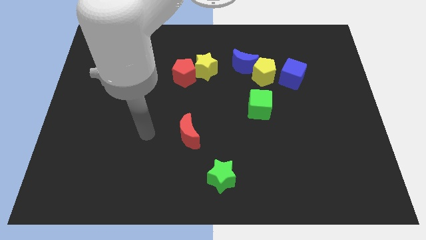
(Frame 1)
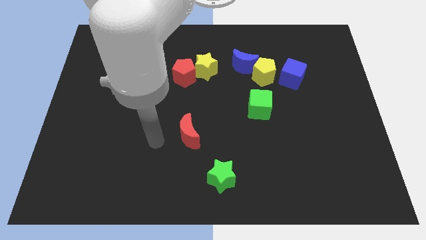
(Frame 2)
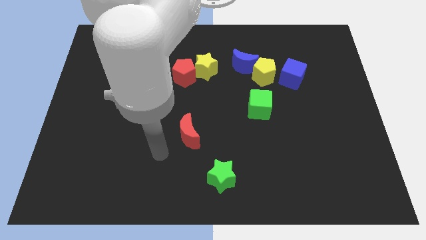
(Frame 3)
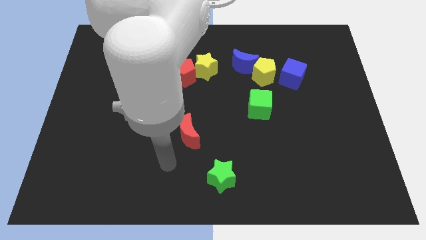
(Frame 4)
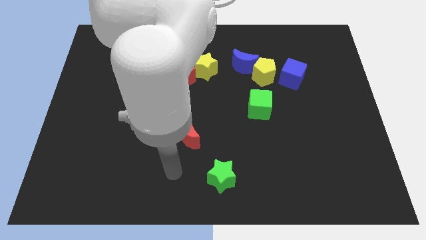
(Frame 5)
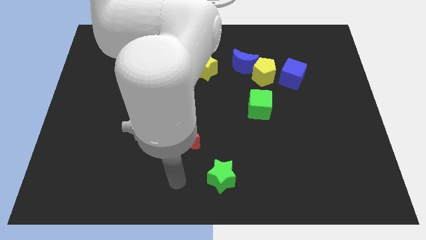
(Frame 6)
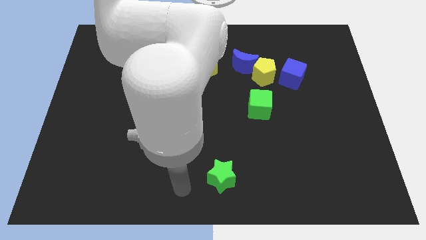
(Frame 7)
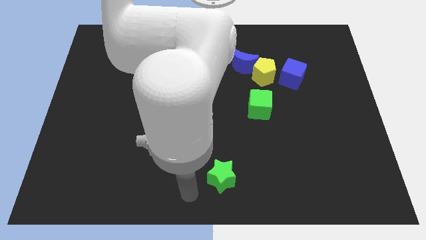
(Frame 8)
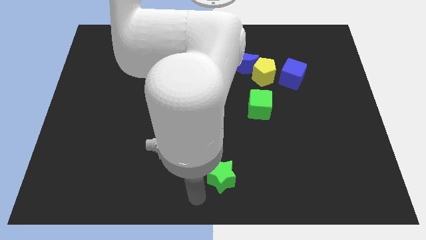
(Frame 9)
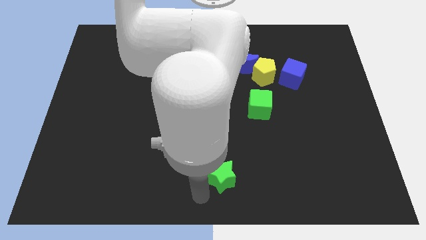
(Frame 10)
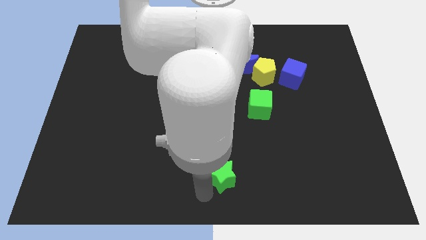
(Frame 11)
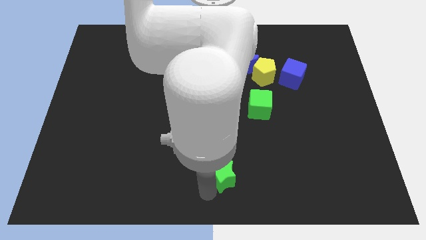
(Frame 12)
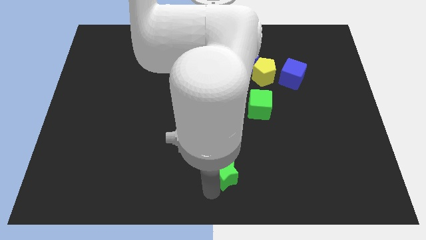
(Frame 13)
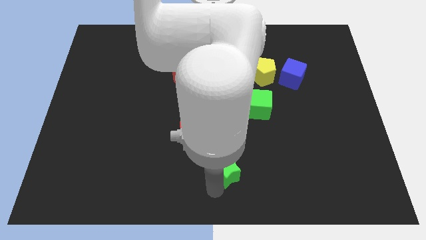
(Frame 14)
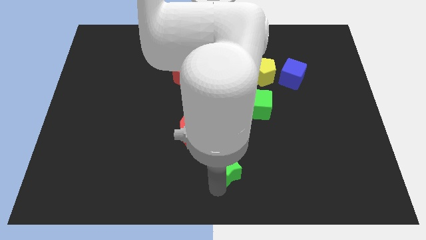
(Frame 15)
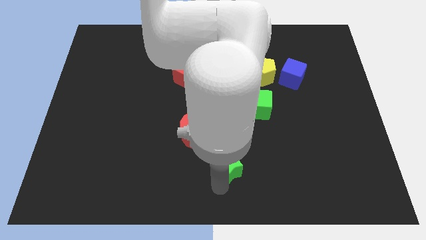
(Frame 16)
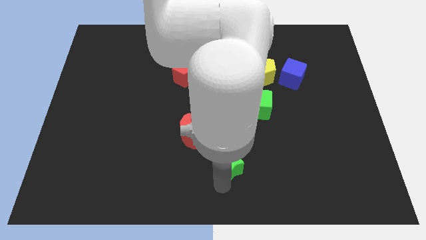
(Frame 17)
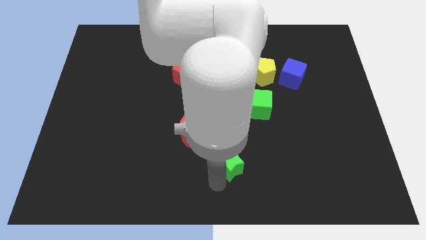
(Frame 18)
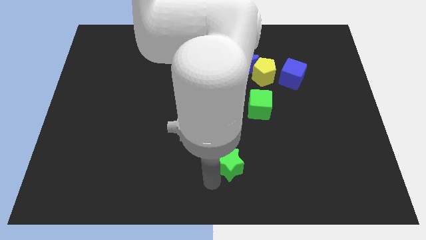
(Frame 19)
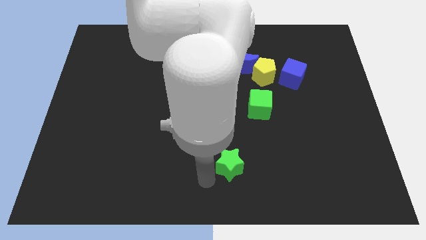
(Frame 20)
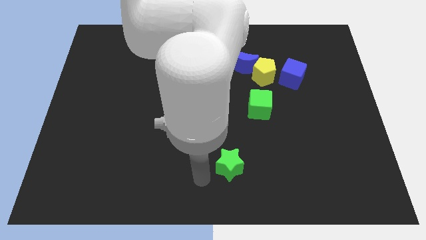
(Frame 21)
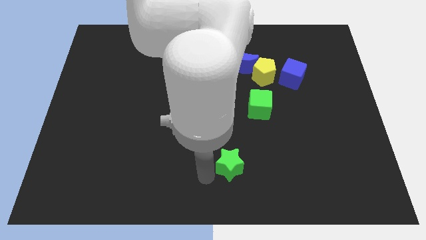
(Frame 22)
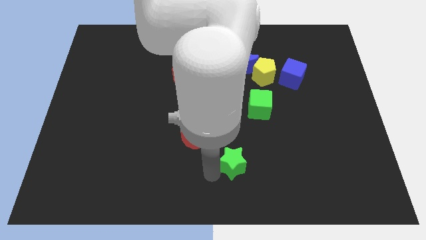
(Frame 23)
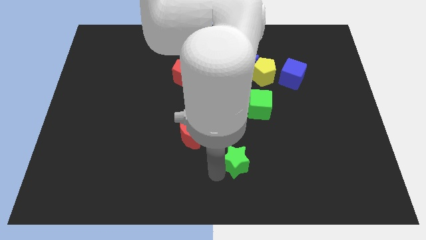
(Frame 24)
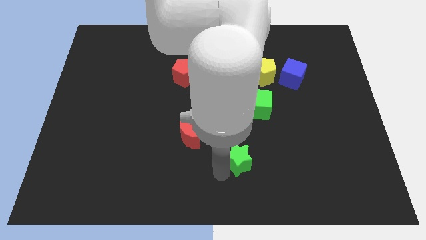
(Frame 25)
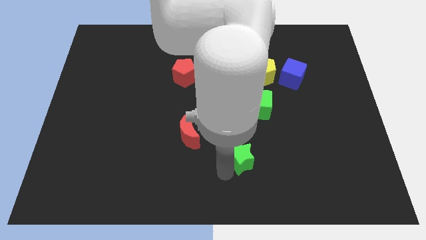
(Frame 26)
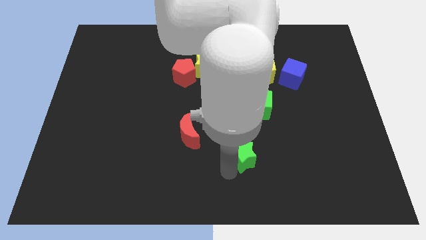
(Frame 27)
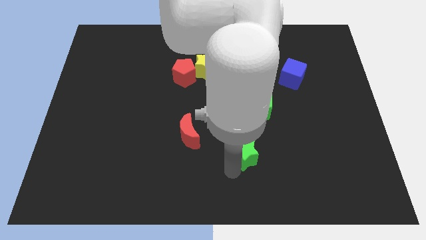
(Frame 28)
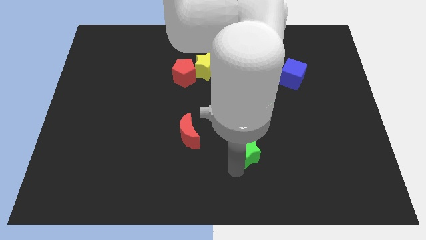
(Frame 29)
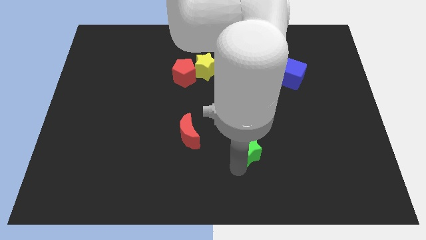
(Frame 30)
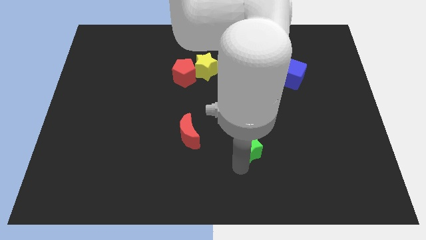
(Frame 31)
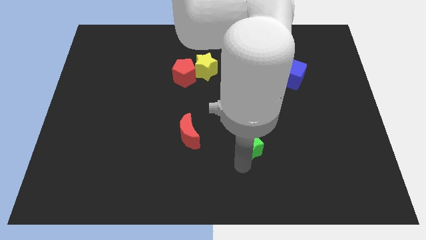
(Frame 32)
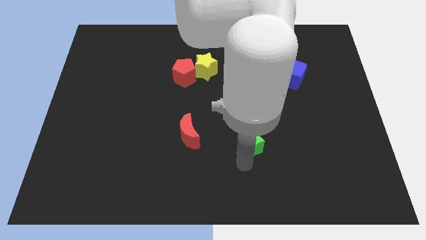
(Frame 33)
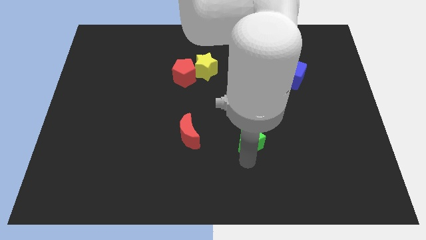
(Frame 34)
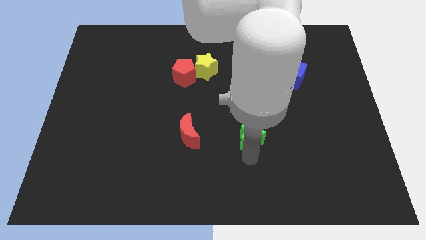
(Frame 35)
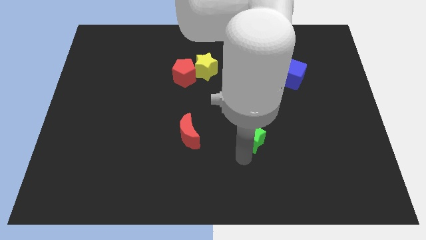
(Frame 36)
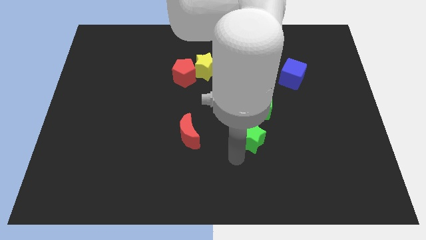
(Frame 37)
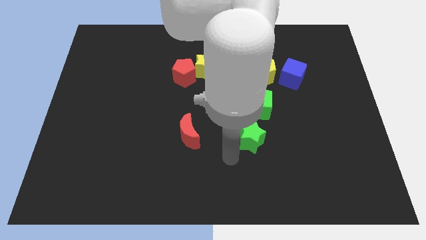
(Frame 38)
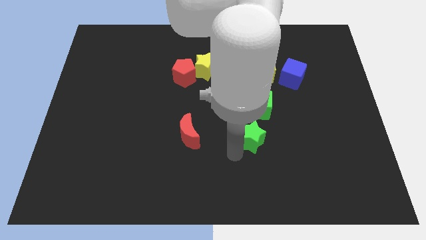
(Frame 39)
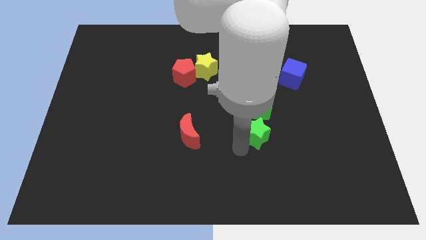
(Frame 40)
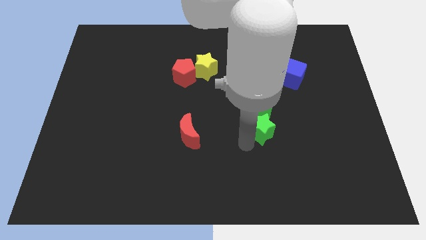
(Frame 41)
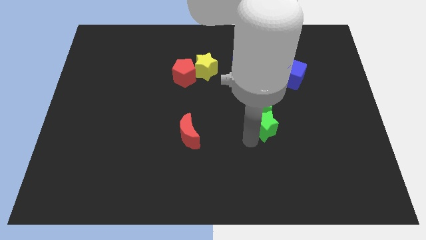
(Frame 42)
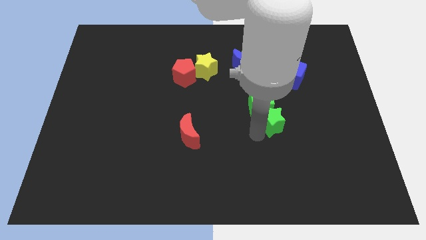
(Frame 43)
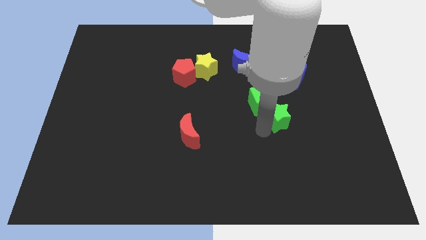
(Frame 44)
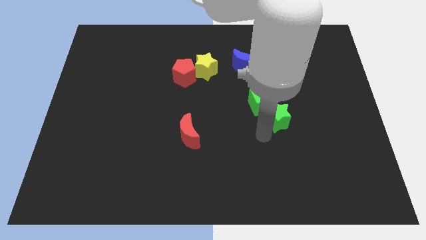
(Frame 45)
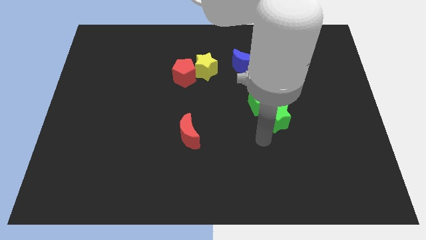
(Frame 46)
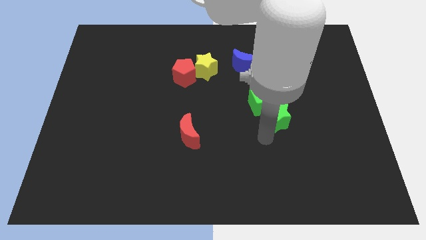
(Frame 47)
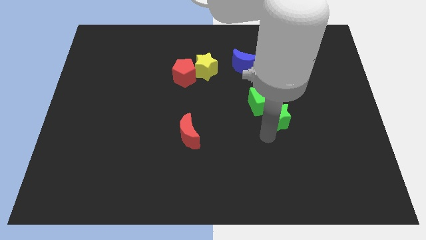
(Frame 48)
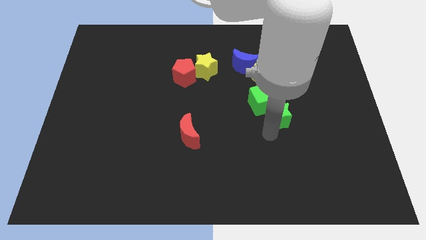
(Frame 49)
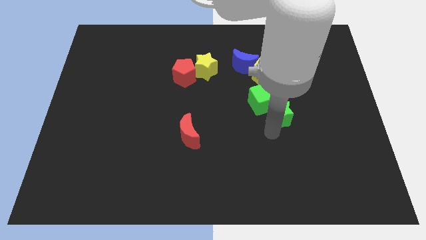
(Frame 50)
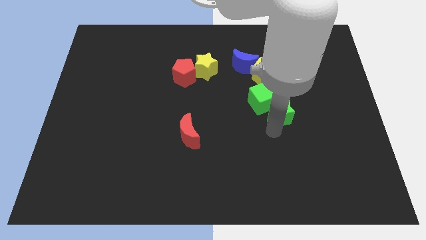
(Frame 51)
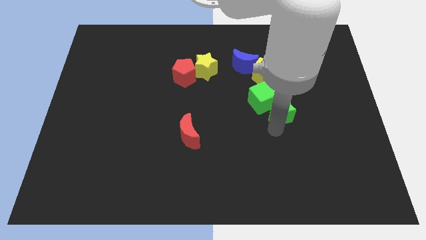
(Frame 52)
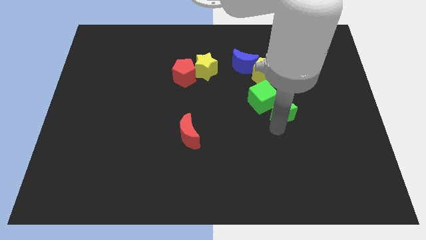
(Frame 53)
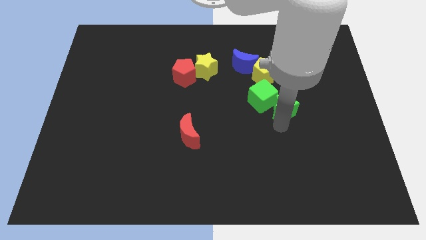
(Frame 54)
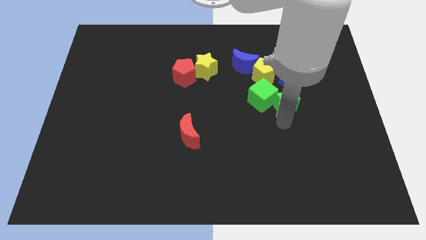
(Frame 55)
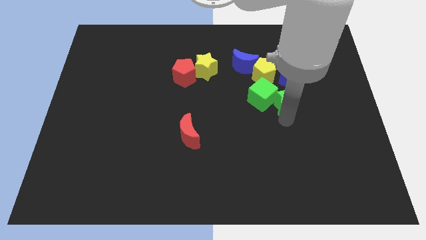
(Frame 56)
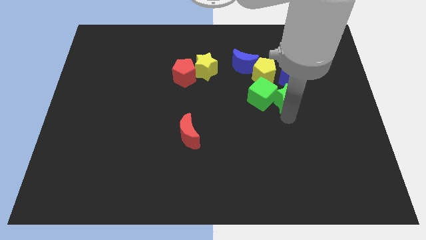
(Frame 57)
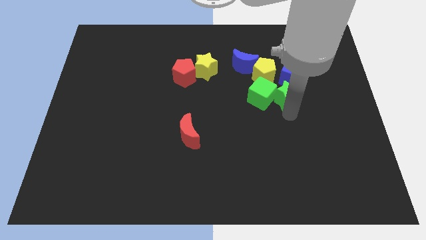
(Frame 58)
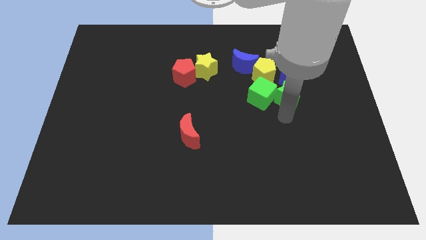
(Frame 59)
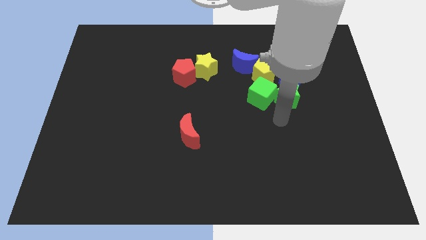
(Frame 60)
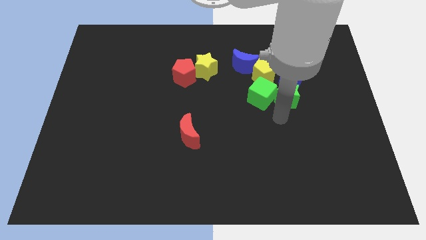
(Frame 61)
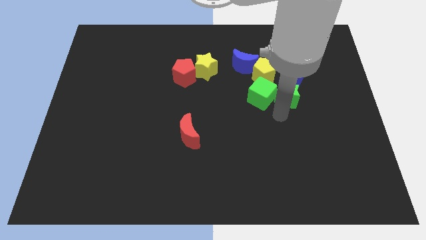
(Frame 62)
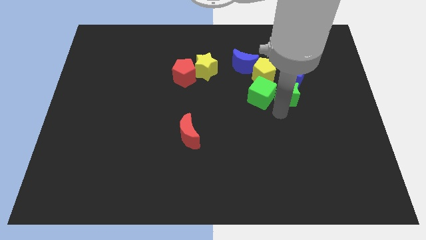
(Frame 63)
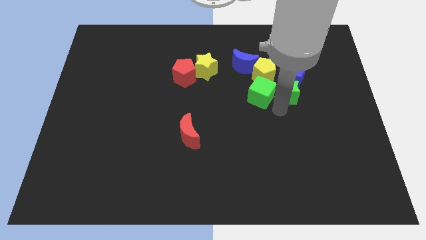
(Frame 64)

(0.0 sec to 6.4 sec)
slide the green star next to the blue cube

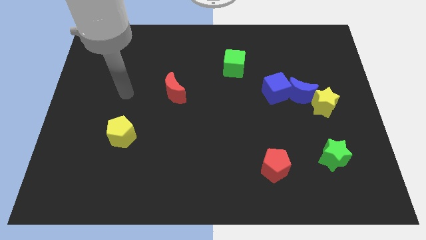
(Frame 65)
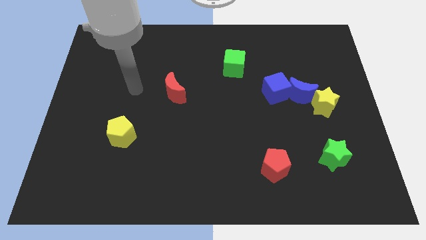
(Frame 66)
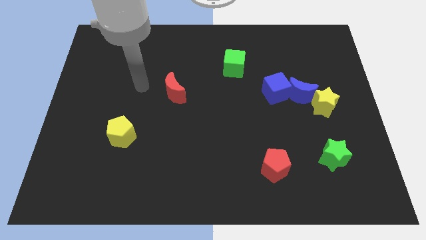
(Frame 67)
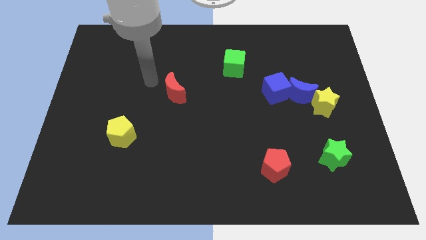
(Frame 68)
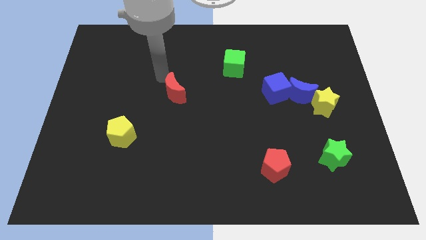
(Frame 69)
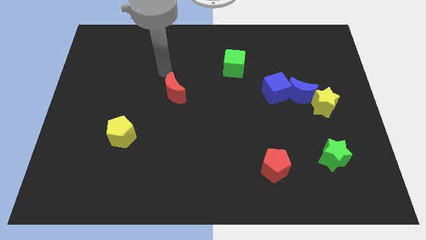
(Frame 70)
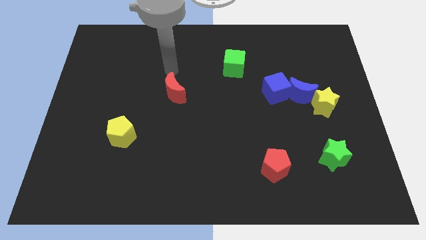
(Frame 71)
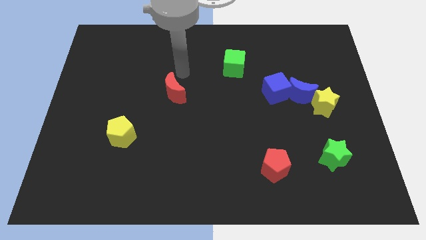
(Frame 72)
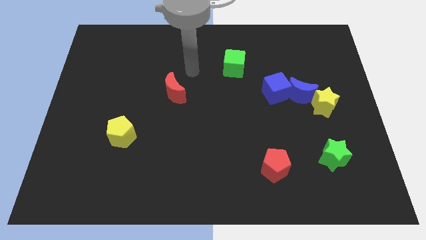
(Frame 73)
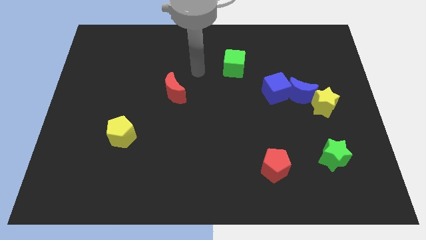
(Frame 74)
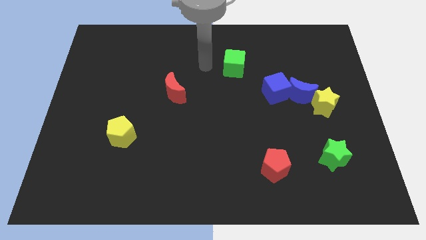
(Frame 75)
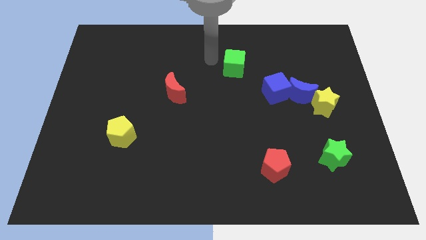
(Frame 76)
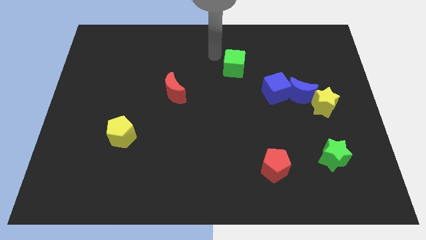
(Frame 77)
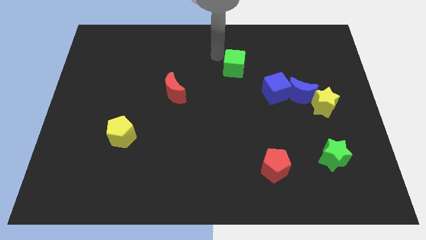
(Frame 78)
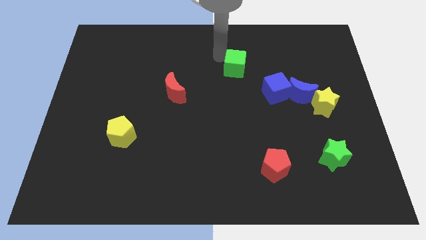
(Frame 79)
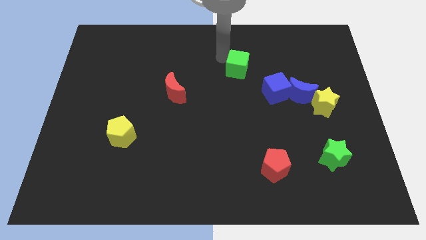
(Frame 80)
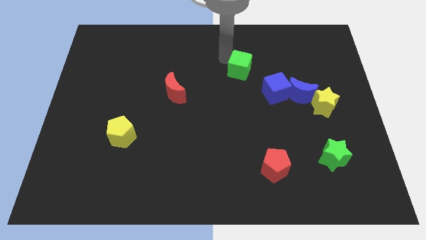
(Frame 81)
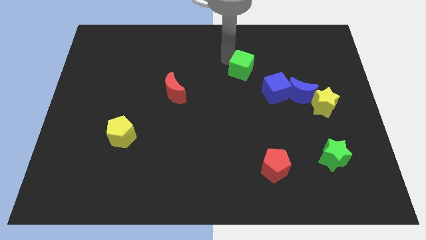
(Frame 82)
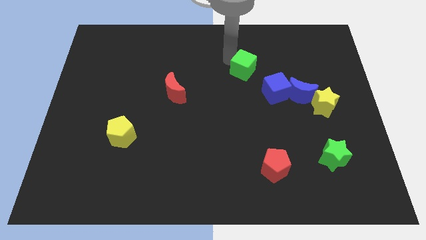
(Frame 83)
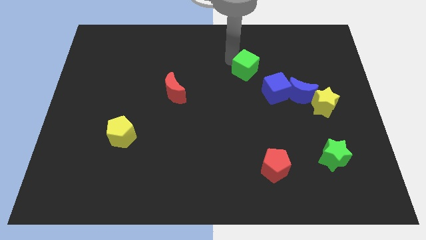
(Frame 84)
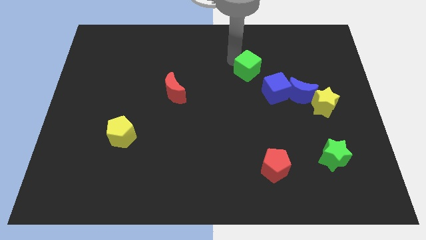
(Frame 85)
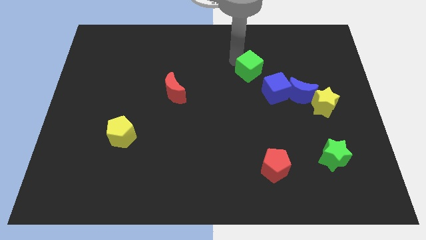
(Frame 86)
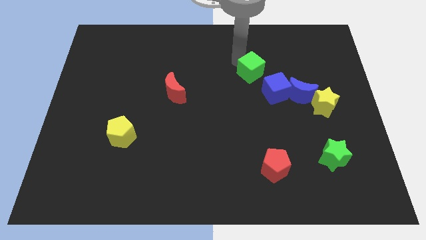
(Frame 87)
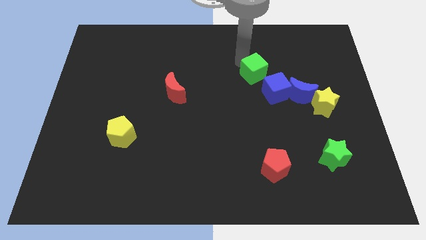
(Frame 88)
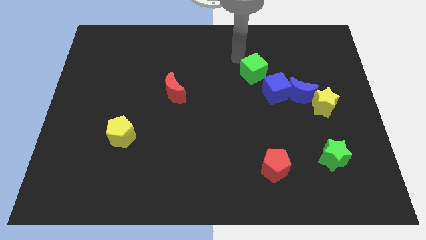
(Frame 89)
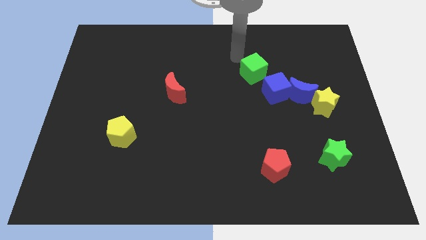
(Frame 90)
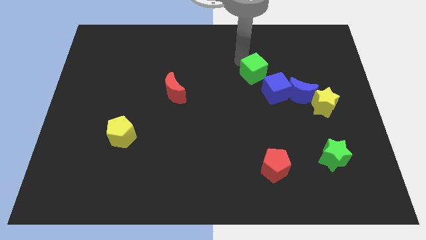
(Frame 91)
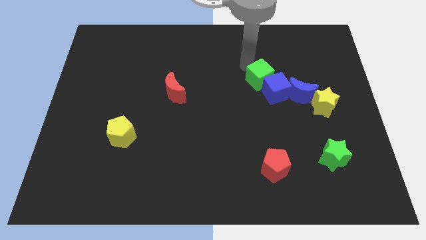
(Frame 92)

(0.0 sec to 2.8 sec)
move the green cube to the blue cube
